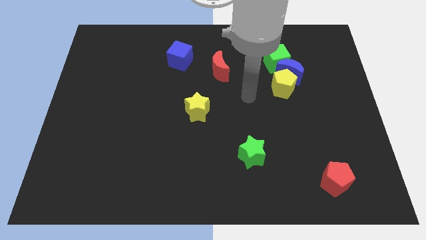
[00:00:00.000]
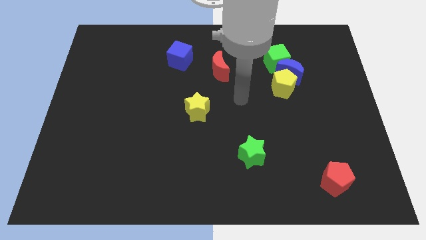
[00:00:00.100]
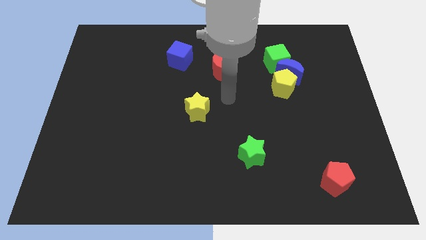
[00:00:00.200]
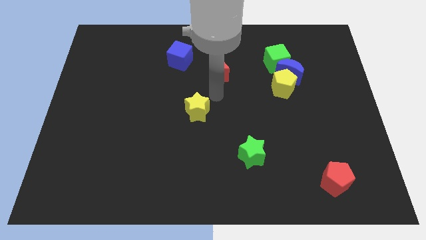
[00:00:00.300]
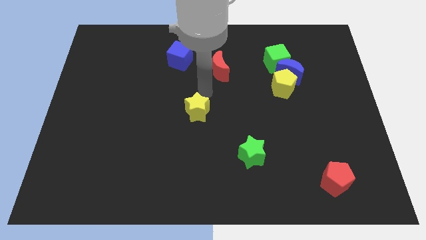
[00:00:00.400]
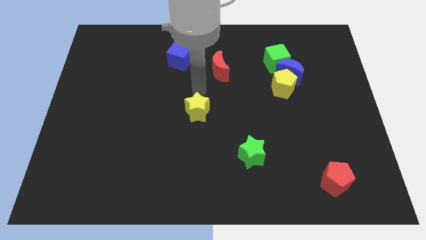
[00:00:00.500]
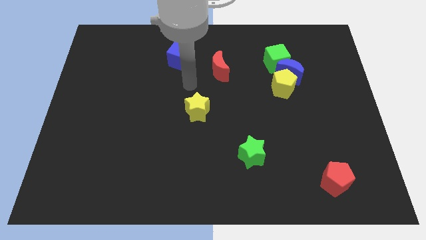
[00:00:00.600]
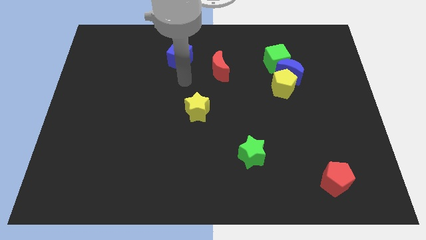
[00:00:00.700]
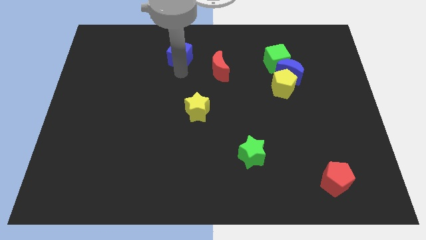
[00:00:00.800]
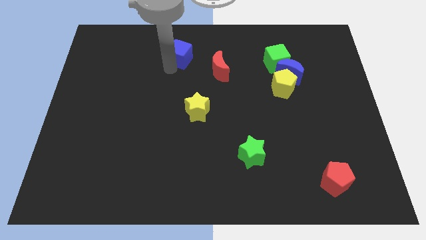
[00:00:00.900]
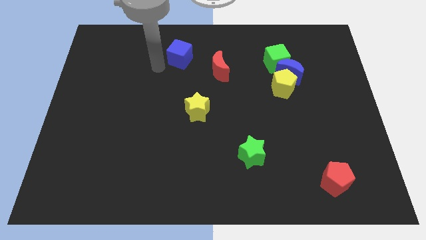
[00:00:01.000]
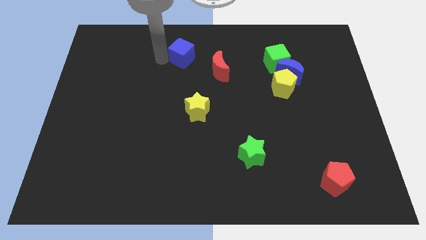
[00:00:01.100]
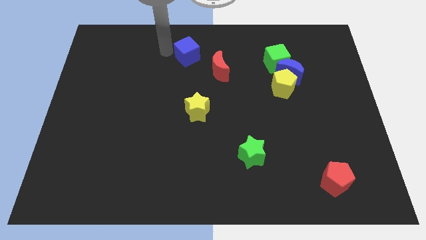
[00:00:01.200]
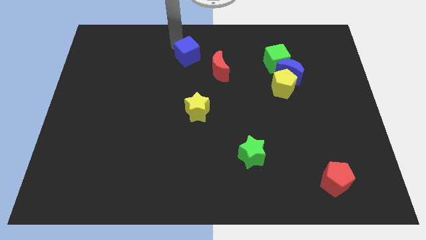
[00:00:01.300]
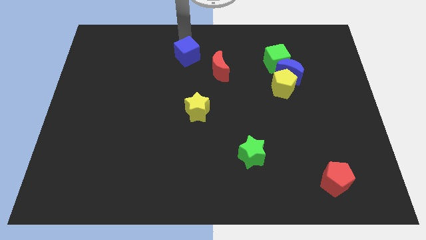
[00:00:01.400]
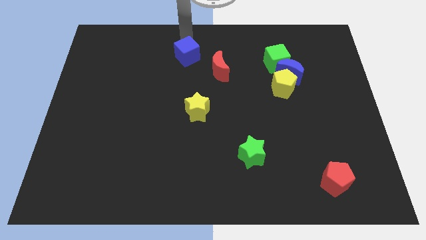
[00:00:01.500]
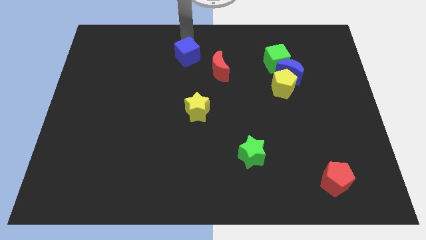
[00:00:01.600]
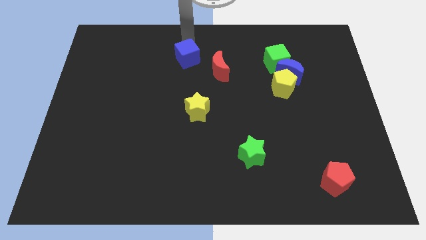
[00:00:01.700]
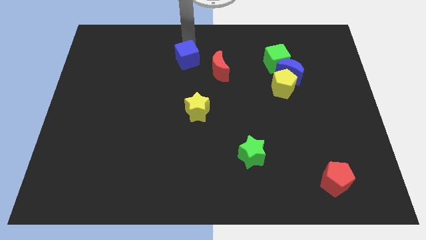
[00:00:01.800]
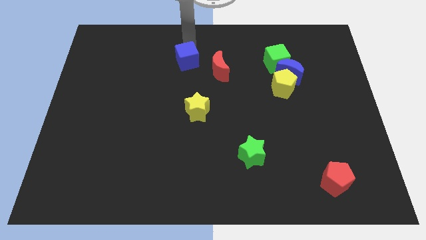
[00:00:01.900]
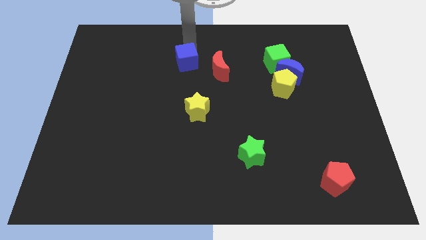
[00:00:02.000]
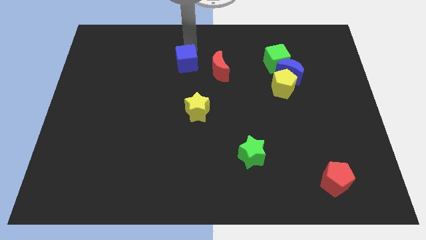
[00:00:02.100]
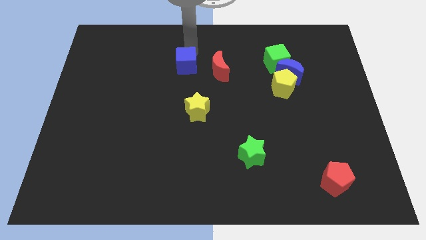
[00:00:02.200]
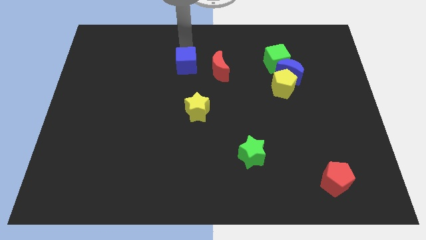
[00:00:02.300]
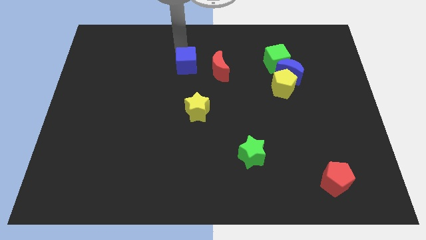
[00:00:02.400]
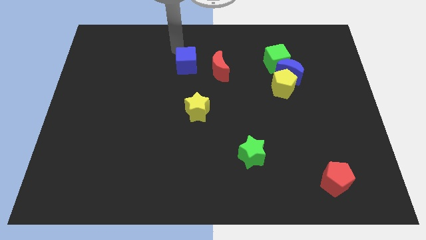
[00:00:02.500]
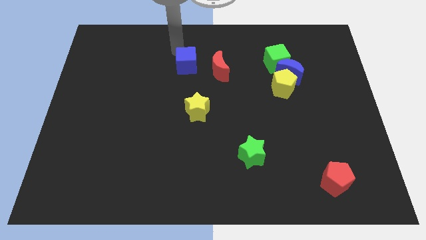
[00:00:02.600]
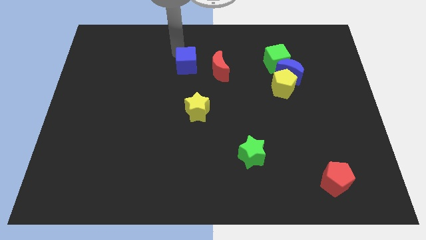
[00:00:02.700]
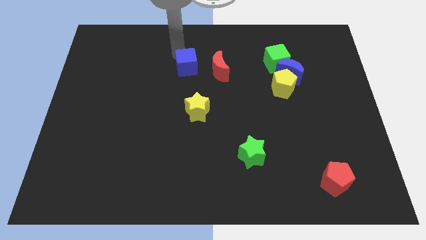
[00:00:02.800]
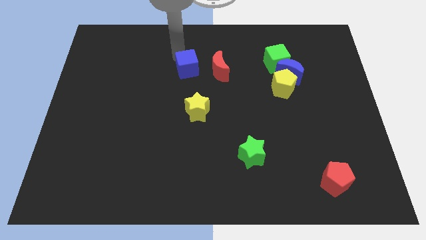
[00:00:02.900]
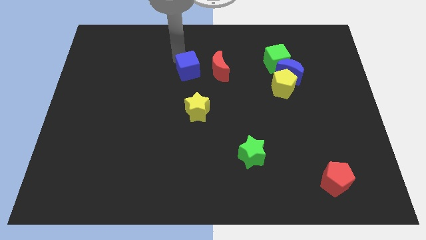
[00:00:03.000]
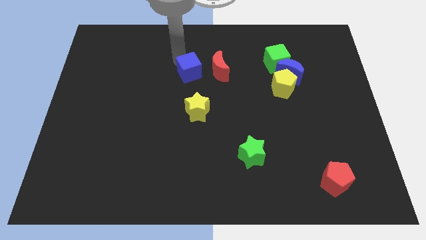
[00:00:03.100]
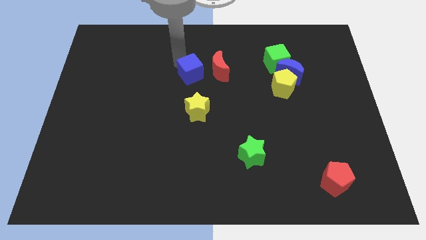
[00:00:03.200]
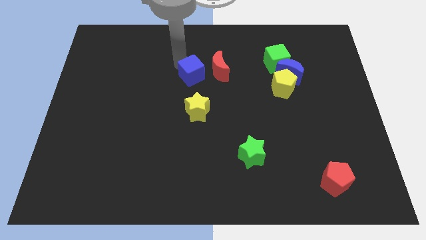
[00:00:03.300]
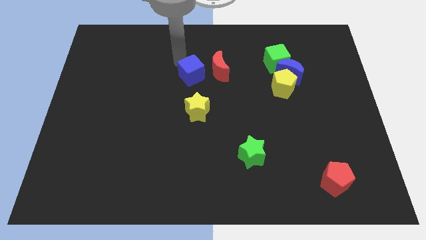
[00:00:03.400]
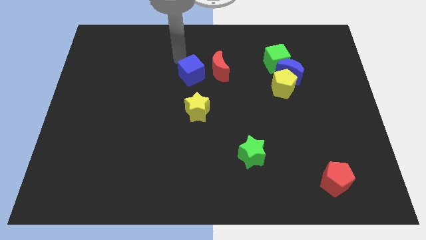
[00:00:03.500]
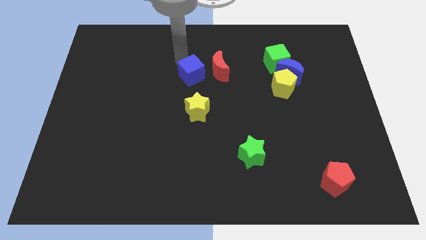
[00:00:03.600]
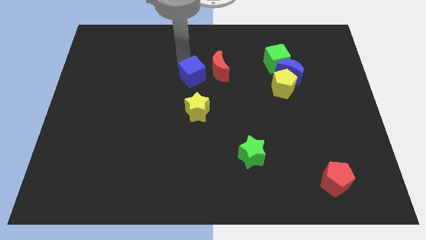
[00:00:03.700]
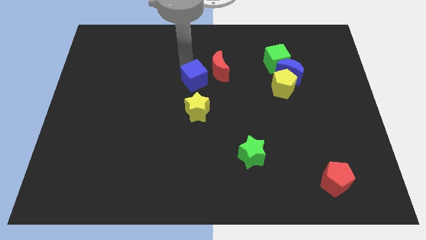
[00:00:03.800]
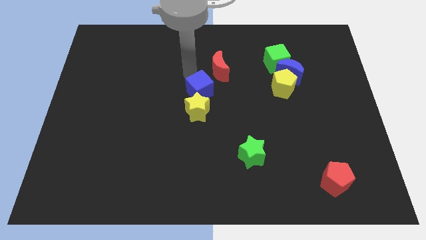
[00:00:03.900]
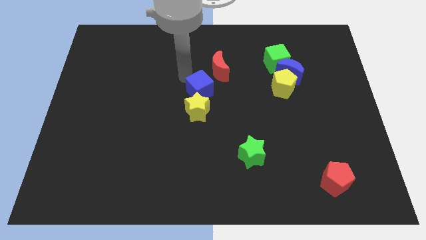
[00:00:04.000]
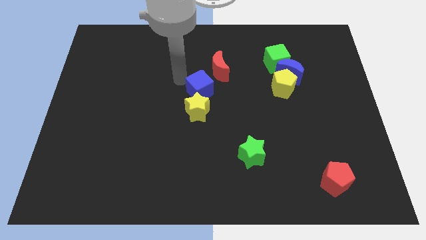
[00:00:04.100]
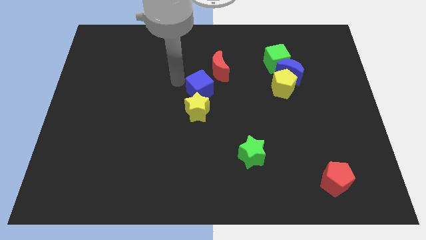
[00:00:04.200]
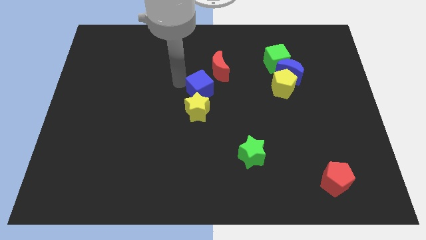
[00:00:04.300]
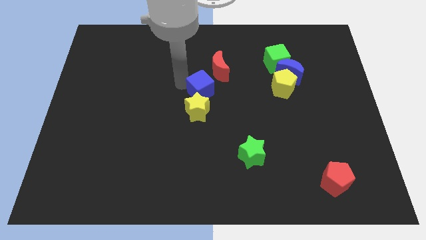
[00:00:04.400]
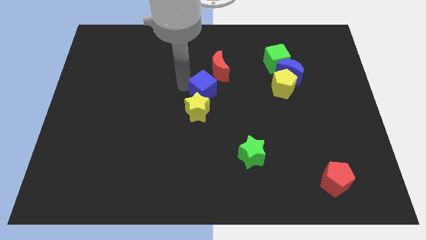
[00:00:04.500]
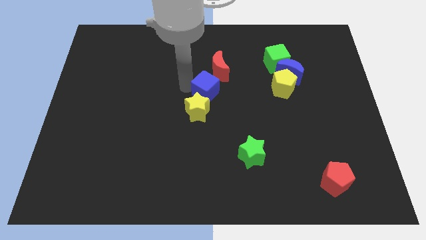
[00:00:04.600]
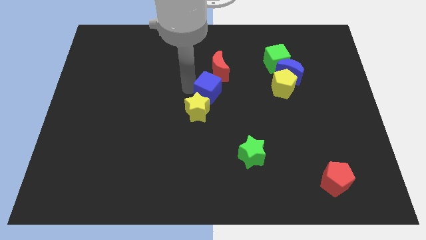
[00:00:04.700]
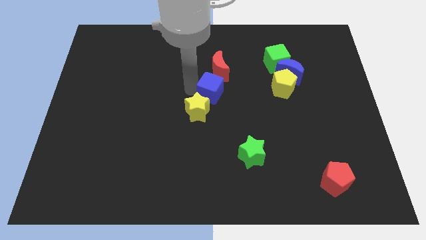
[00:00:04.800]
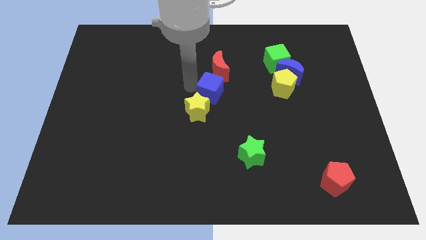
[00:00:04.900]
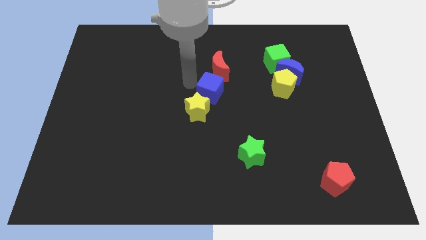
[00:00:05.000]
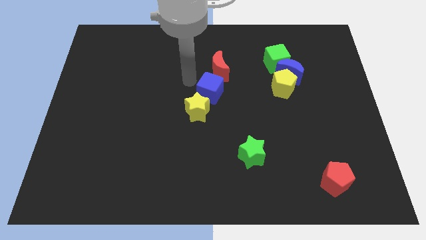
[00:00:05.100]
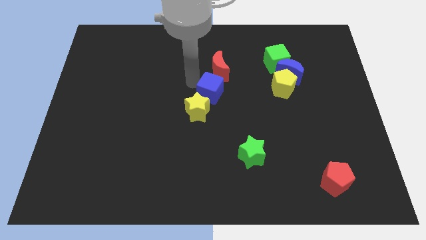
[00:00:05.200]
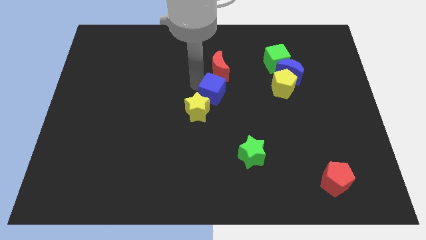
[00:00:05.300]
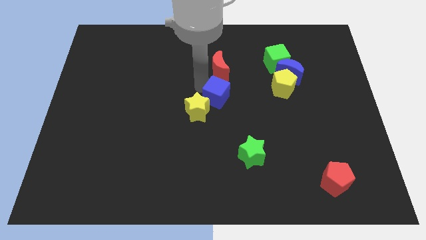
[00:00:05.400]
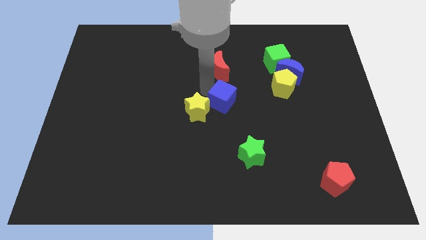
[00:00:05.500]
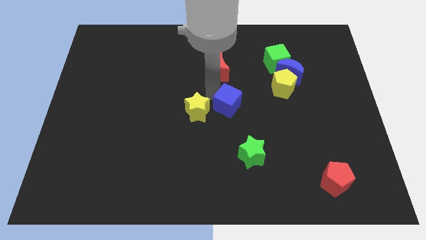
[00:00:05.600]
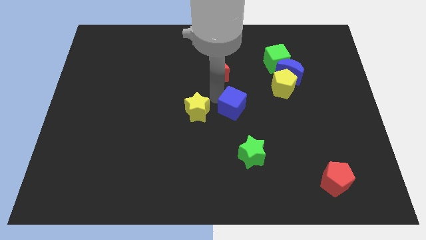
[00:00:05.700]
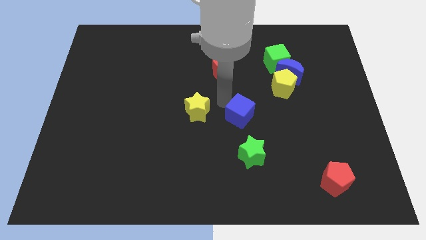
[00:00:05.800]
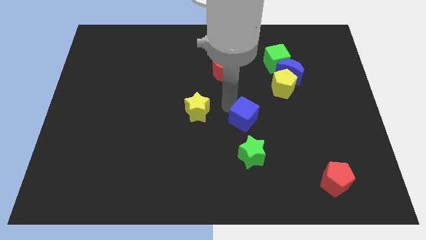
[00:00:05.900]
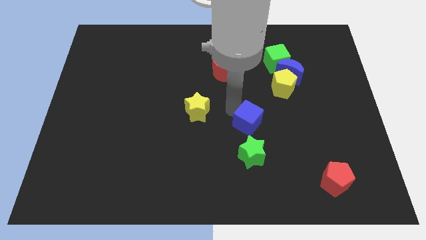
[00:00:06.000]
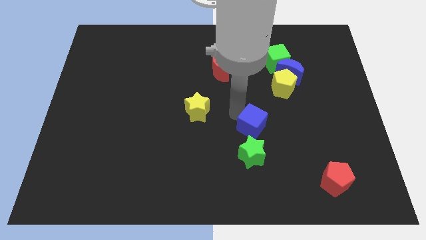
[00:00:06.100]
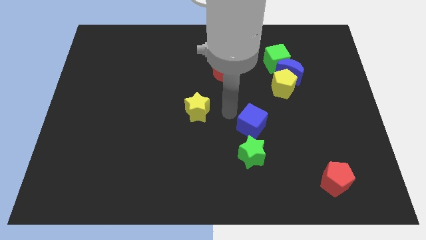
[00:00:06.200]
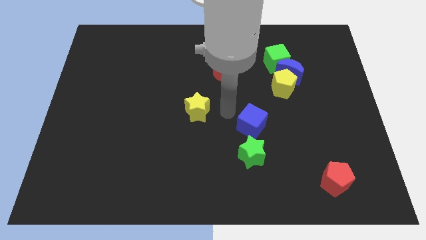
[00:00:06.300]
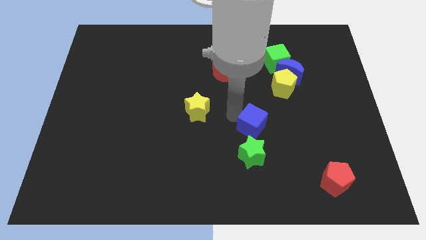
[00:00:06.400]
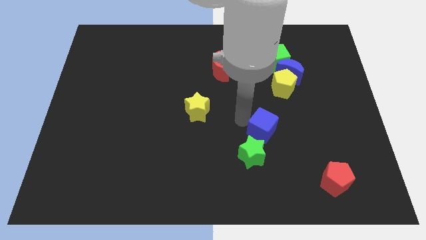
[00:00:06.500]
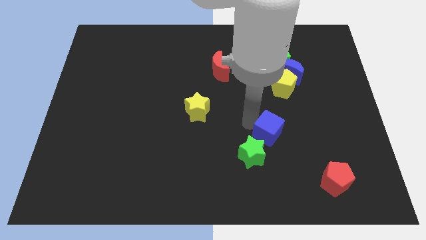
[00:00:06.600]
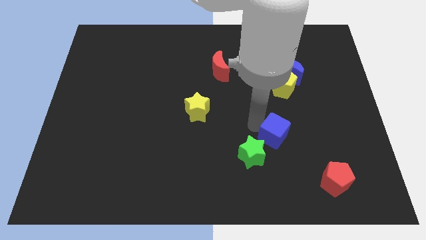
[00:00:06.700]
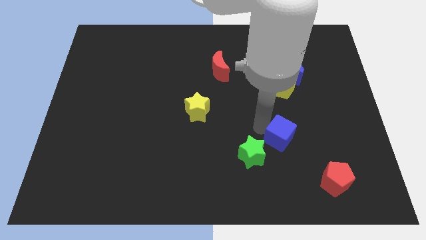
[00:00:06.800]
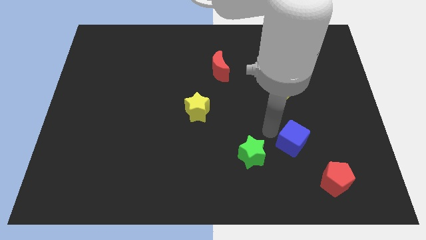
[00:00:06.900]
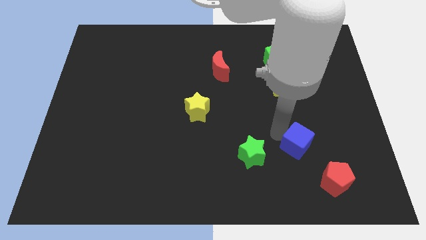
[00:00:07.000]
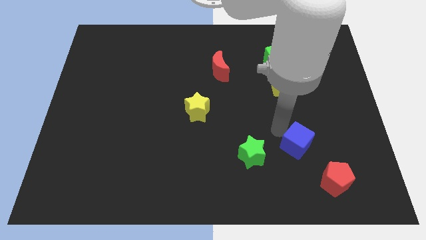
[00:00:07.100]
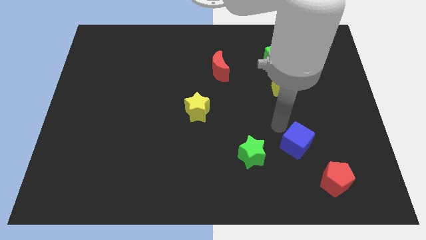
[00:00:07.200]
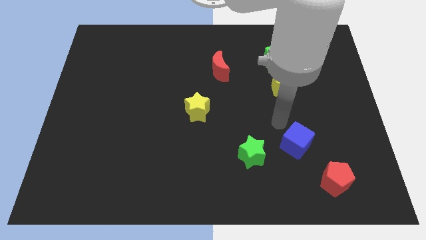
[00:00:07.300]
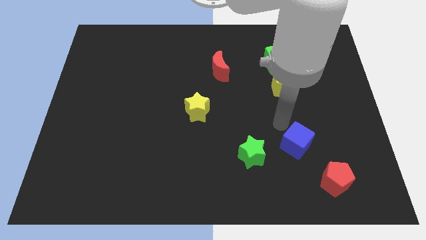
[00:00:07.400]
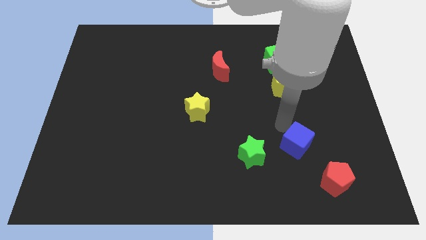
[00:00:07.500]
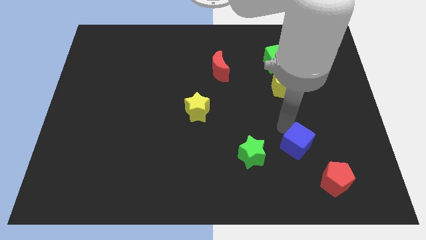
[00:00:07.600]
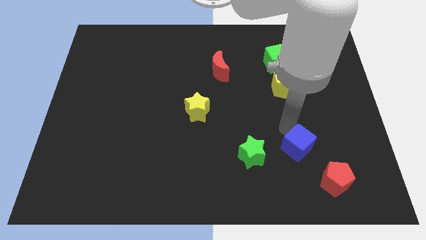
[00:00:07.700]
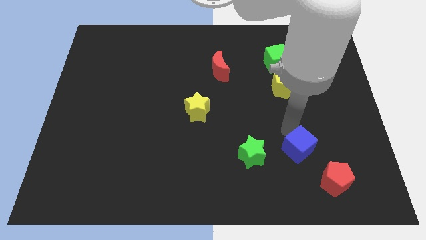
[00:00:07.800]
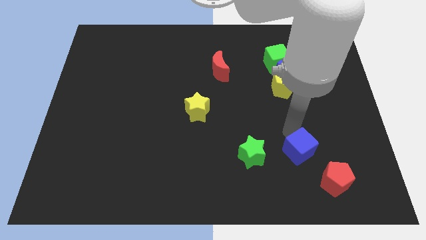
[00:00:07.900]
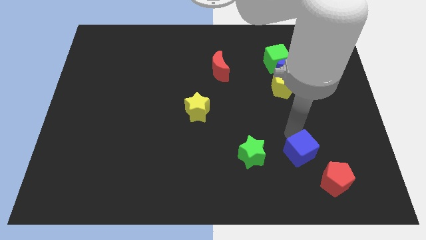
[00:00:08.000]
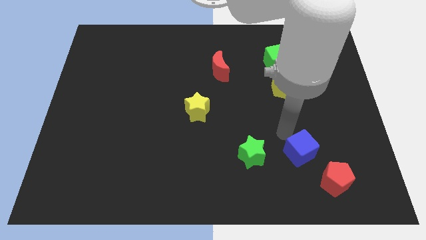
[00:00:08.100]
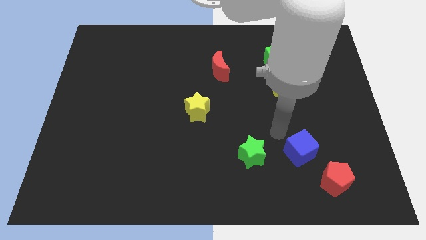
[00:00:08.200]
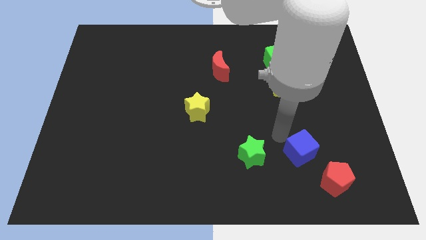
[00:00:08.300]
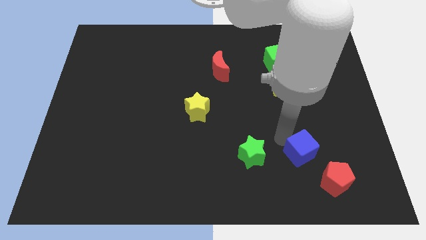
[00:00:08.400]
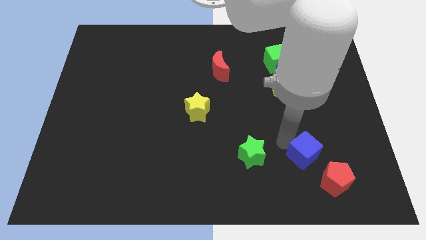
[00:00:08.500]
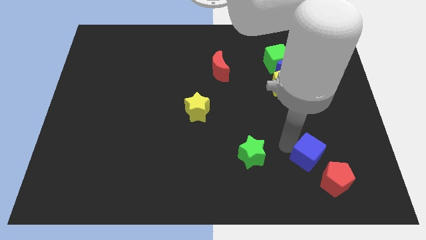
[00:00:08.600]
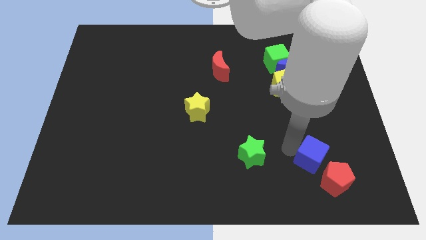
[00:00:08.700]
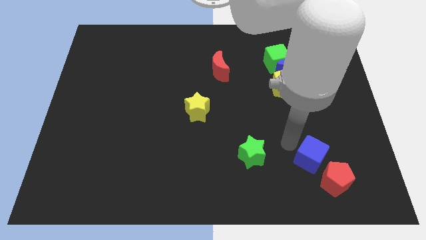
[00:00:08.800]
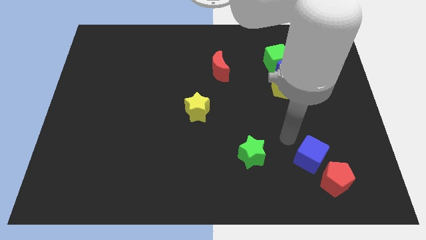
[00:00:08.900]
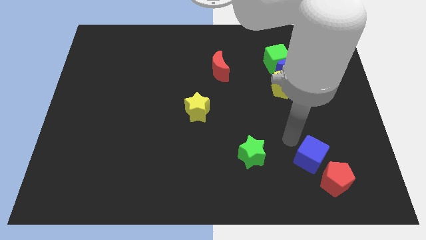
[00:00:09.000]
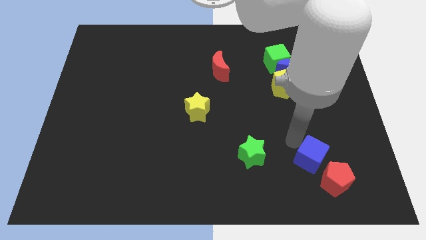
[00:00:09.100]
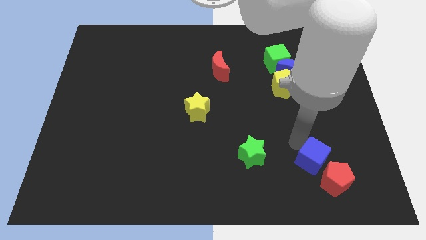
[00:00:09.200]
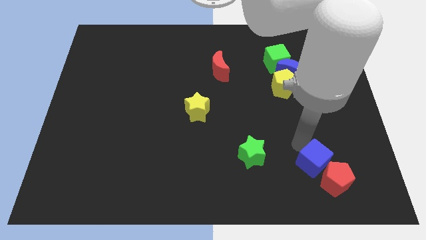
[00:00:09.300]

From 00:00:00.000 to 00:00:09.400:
put the blue cube close to the red pentagon
